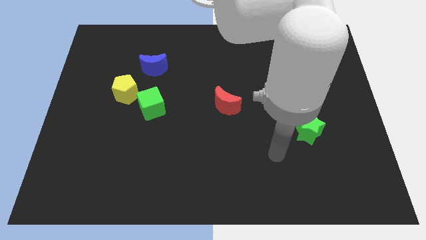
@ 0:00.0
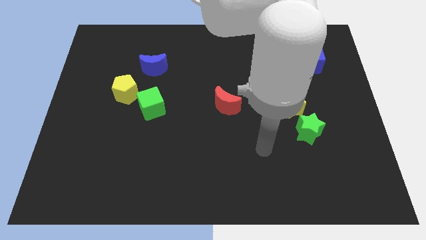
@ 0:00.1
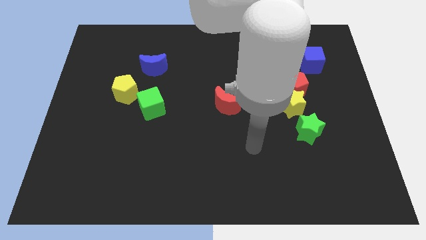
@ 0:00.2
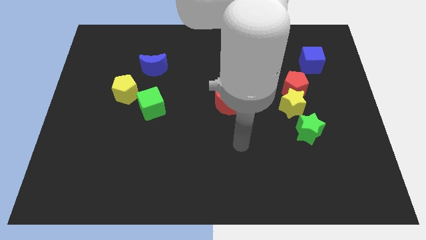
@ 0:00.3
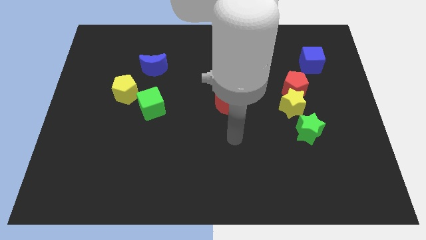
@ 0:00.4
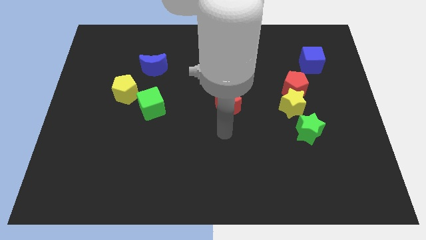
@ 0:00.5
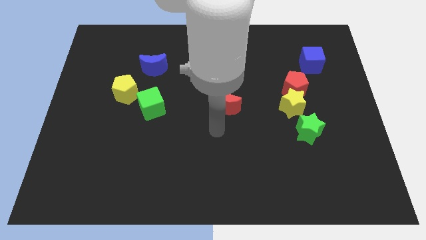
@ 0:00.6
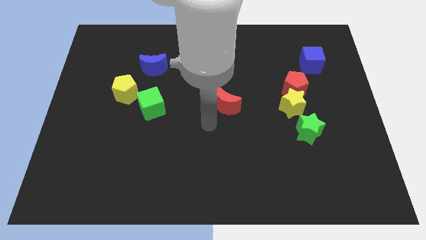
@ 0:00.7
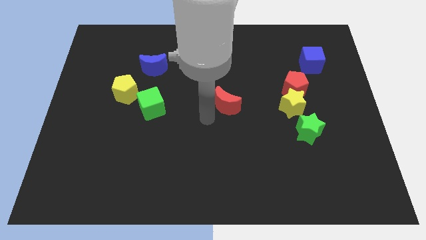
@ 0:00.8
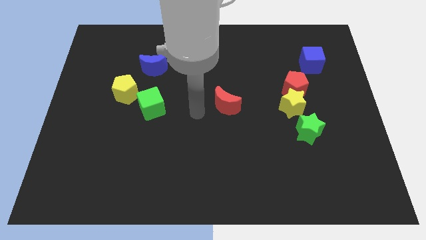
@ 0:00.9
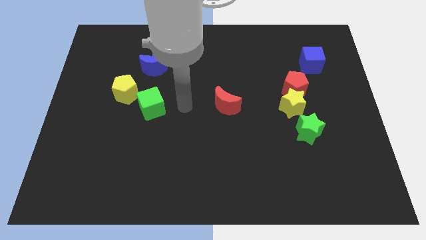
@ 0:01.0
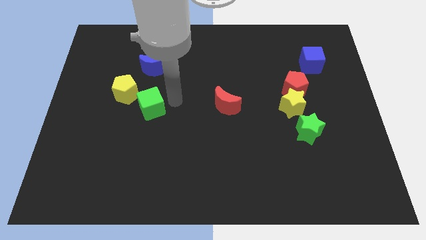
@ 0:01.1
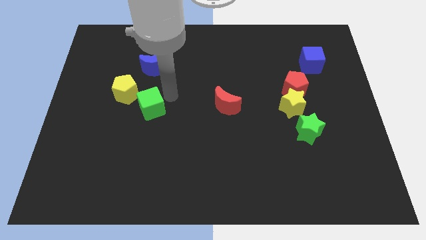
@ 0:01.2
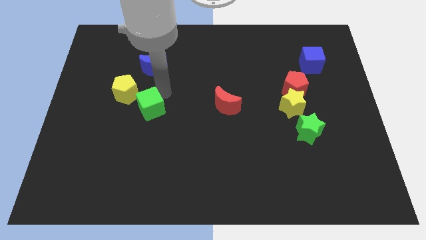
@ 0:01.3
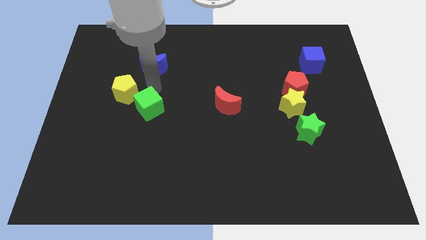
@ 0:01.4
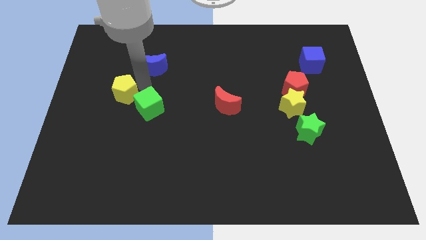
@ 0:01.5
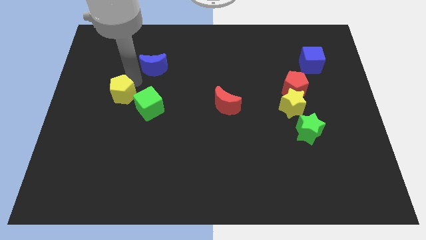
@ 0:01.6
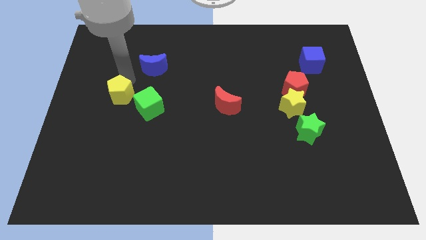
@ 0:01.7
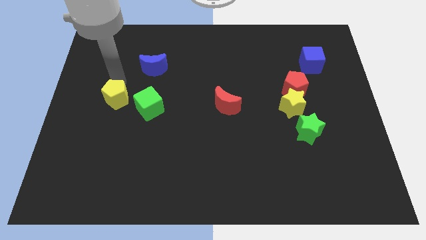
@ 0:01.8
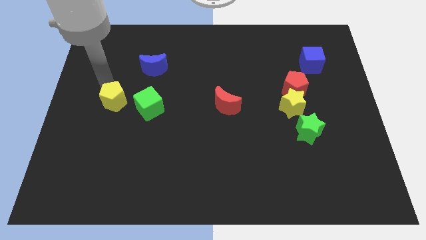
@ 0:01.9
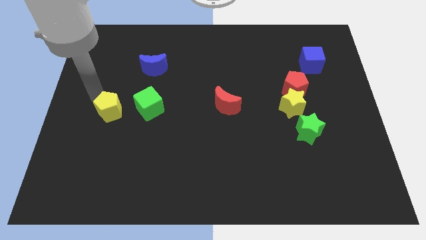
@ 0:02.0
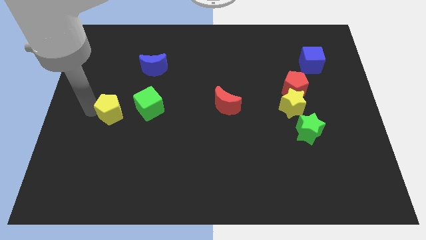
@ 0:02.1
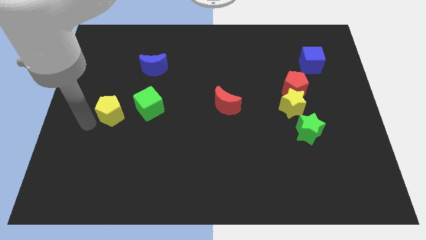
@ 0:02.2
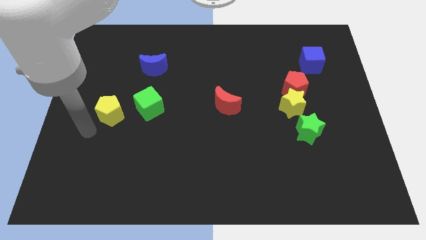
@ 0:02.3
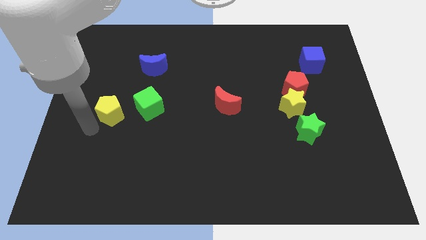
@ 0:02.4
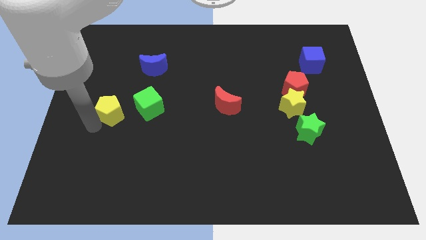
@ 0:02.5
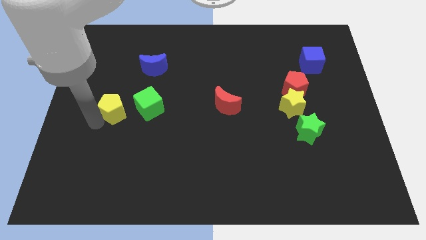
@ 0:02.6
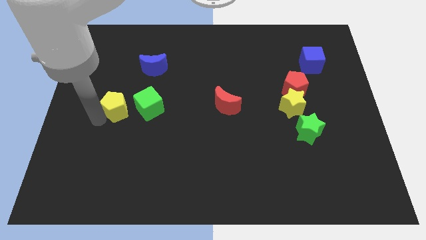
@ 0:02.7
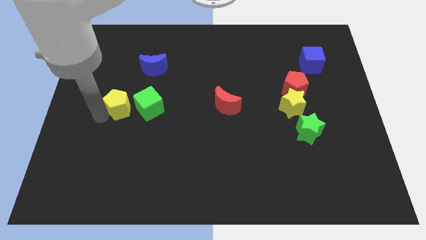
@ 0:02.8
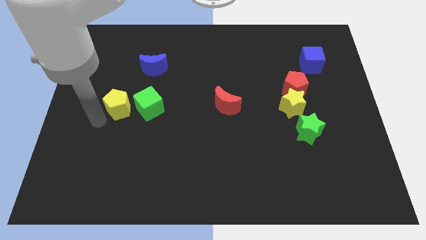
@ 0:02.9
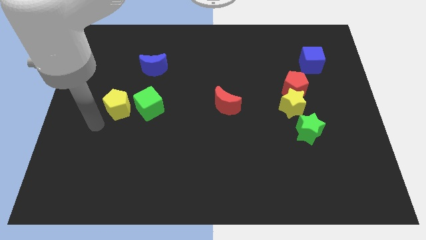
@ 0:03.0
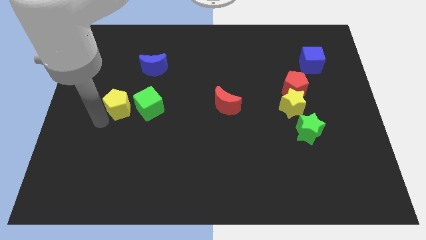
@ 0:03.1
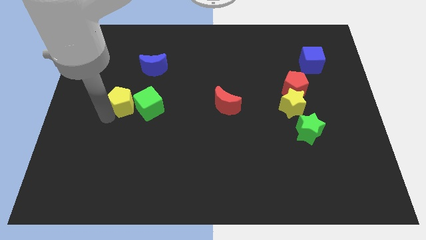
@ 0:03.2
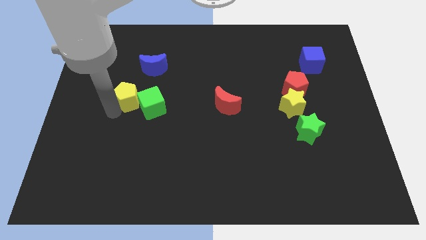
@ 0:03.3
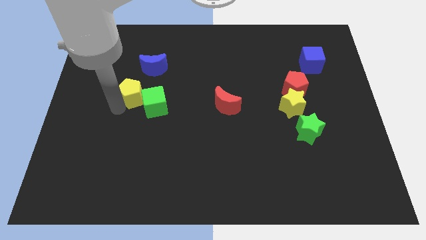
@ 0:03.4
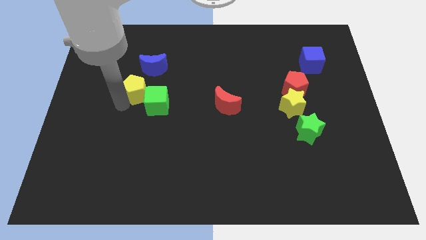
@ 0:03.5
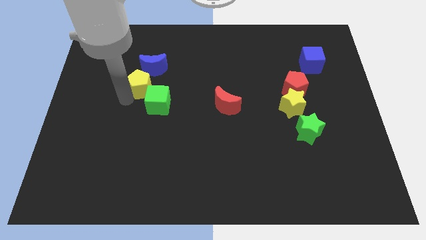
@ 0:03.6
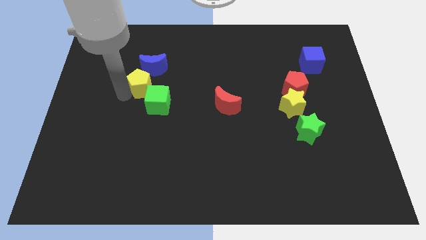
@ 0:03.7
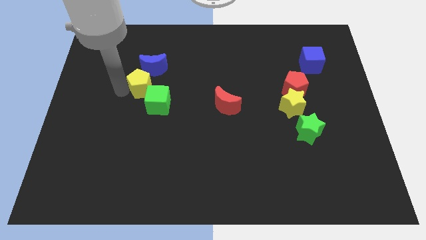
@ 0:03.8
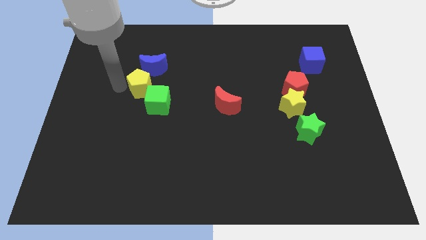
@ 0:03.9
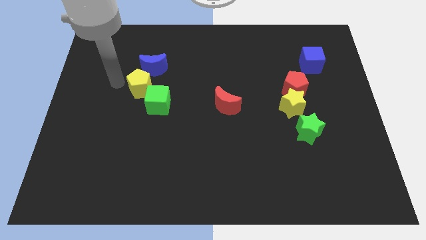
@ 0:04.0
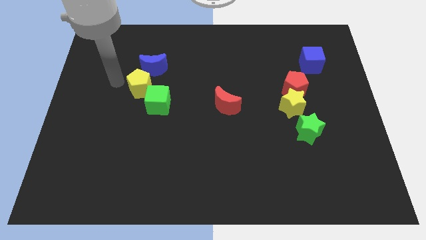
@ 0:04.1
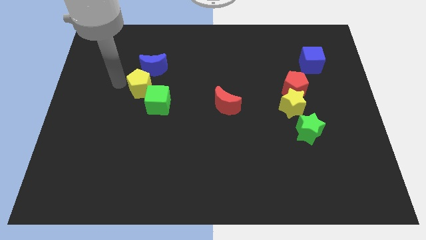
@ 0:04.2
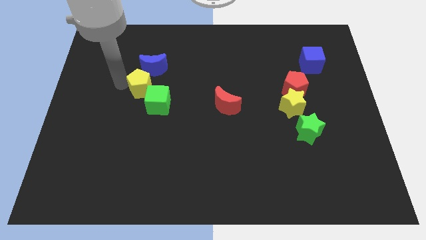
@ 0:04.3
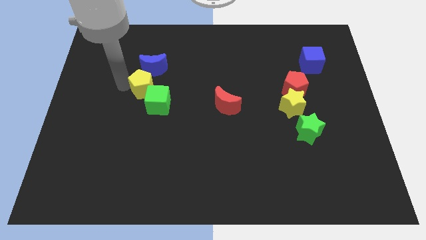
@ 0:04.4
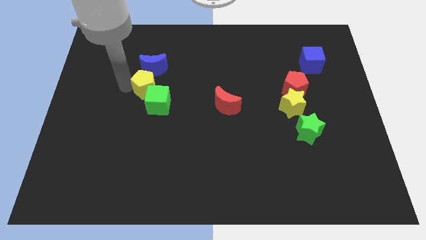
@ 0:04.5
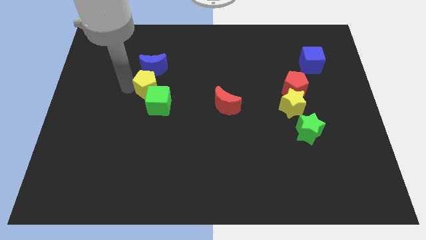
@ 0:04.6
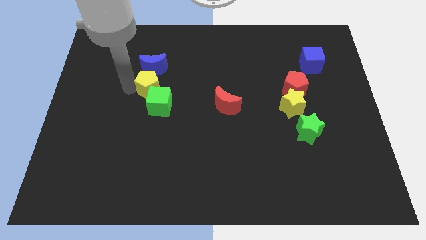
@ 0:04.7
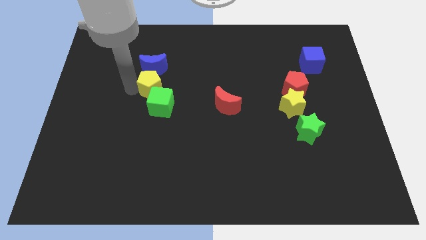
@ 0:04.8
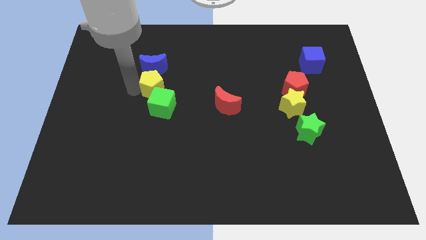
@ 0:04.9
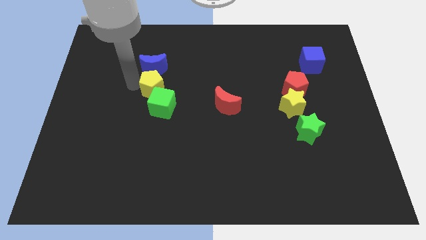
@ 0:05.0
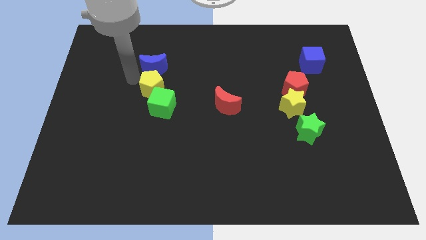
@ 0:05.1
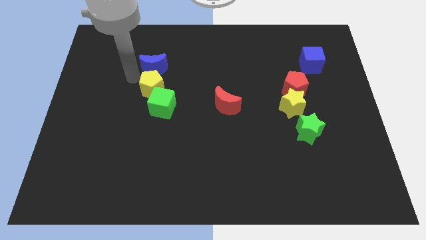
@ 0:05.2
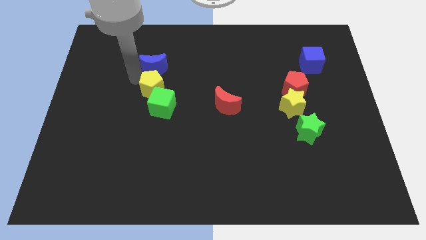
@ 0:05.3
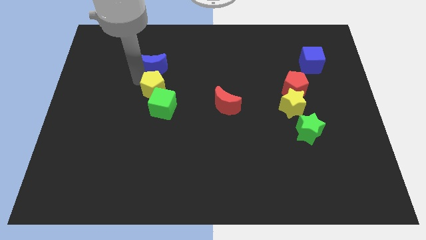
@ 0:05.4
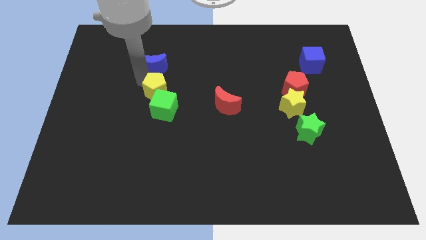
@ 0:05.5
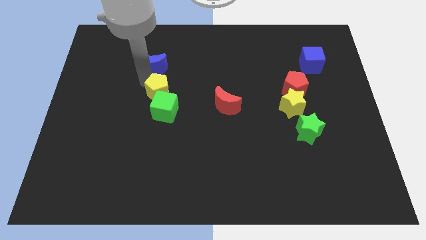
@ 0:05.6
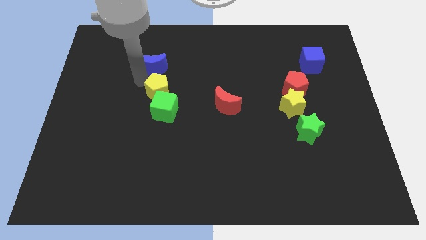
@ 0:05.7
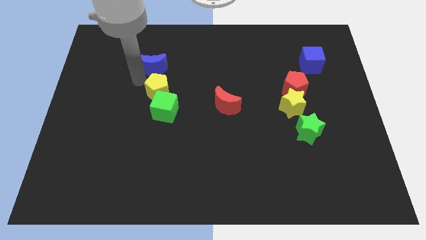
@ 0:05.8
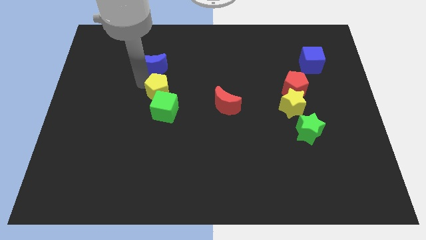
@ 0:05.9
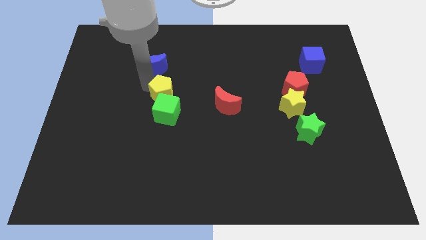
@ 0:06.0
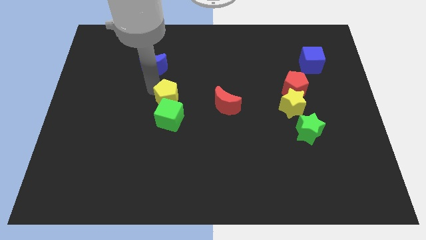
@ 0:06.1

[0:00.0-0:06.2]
push the yellow pentagon just left of the red moon

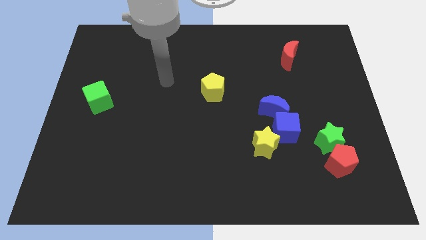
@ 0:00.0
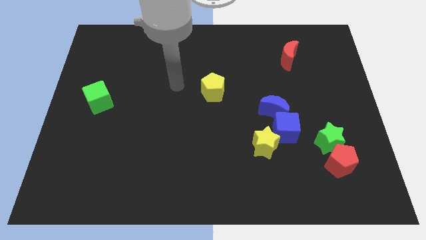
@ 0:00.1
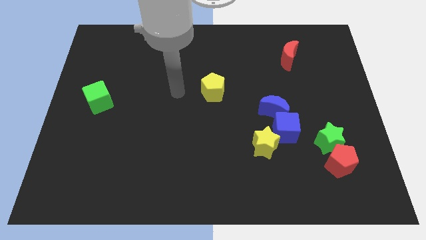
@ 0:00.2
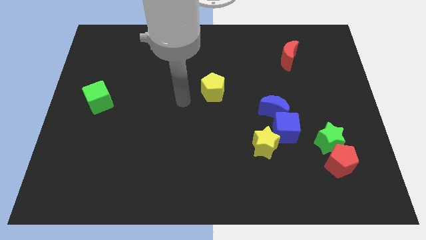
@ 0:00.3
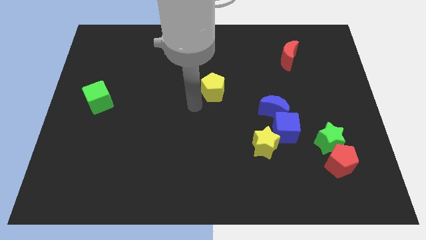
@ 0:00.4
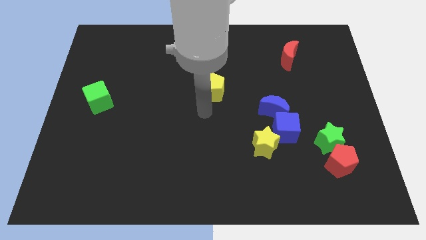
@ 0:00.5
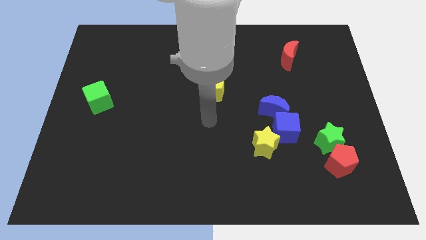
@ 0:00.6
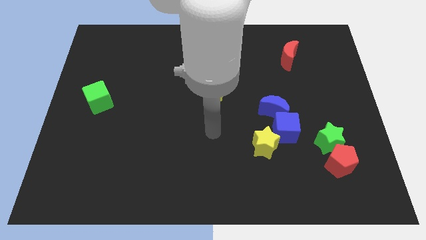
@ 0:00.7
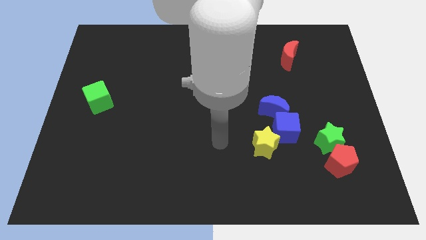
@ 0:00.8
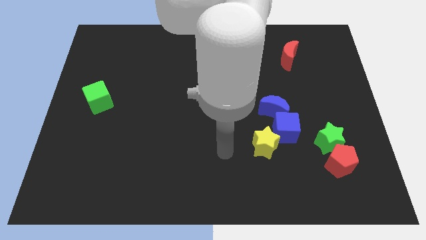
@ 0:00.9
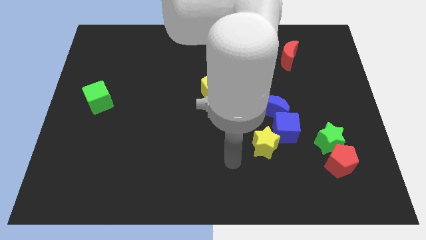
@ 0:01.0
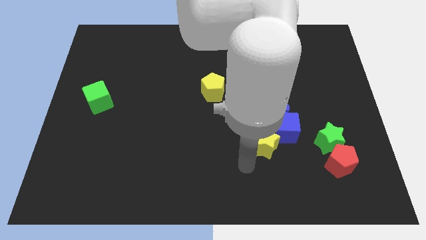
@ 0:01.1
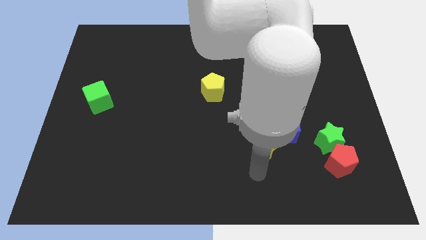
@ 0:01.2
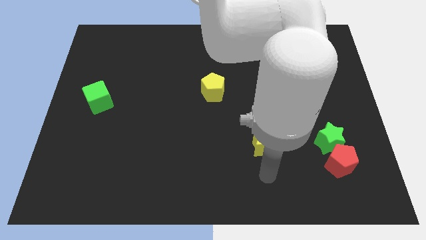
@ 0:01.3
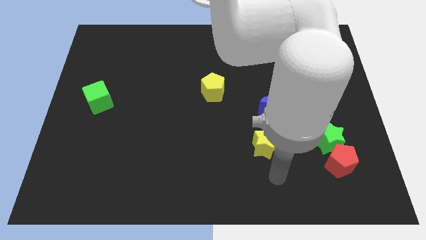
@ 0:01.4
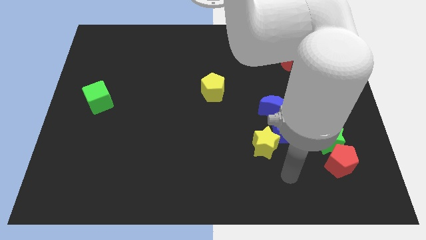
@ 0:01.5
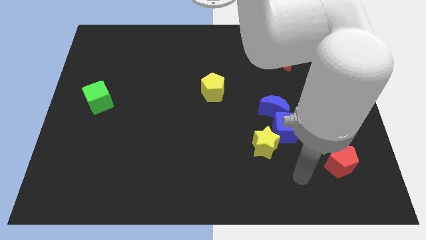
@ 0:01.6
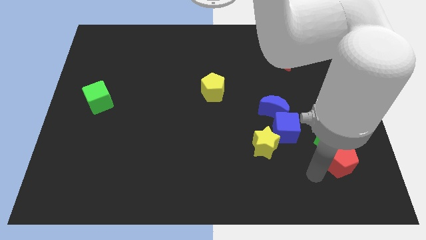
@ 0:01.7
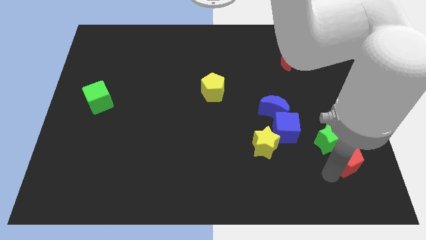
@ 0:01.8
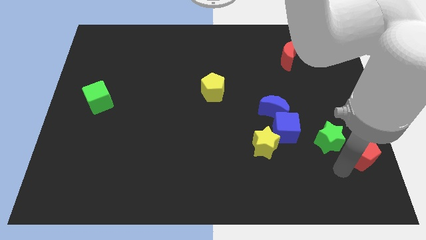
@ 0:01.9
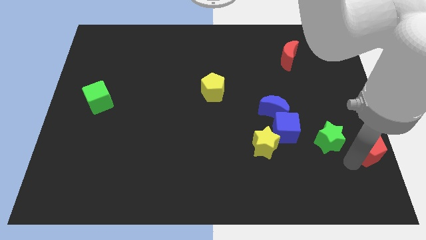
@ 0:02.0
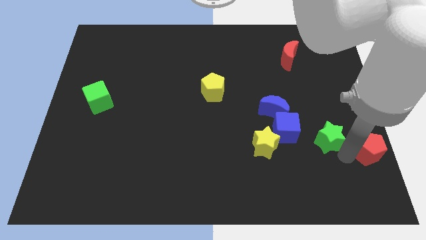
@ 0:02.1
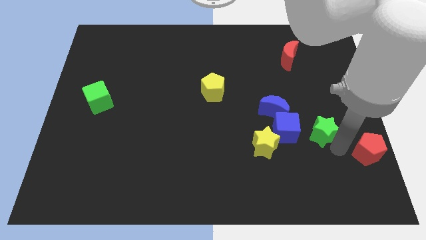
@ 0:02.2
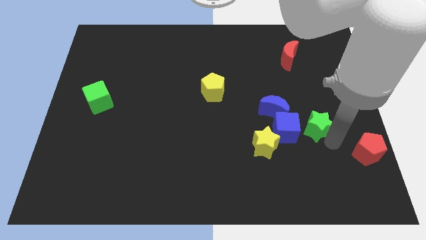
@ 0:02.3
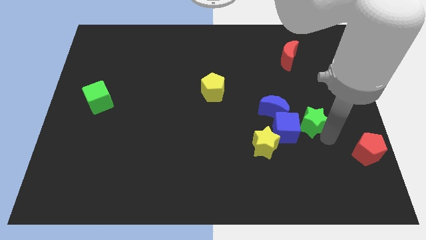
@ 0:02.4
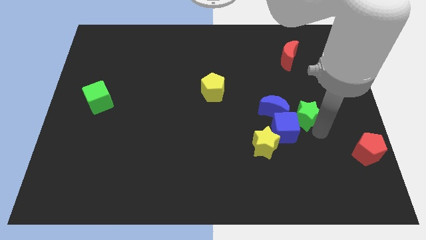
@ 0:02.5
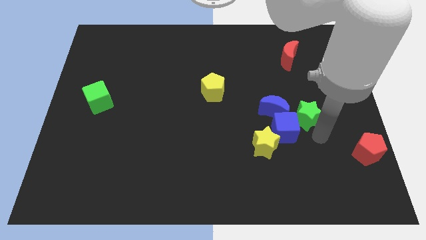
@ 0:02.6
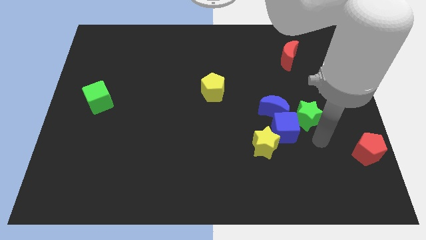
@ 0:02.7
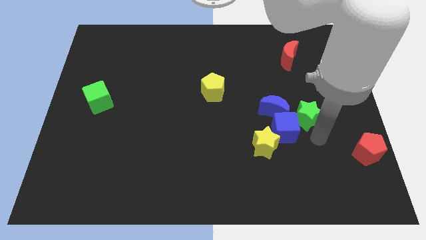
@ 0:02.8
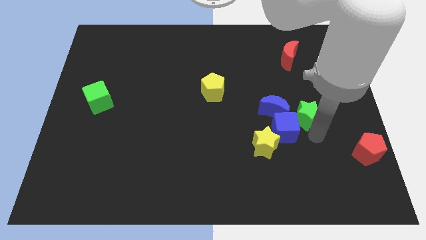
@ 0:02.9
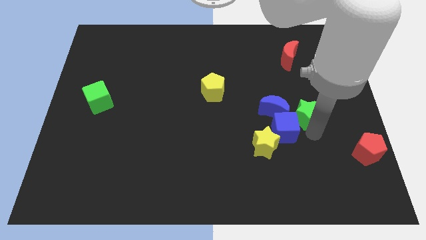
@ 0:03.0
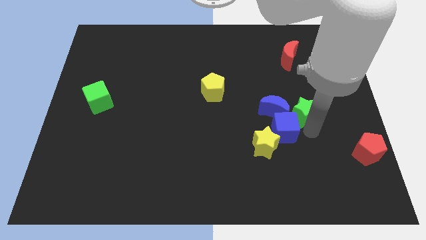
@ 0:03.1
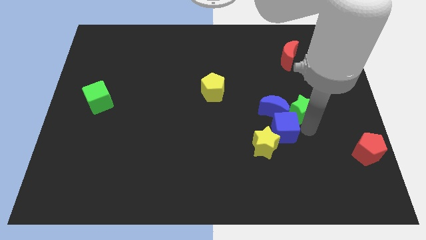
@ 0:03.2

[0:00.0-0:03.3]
push the green star to the top right side of the blue moon
